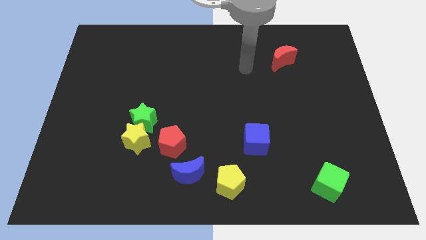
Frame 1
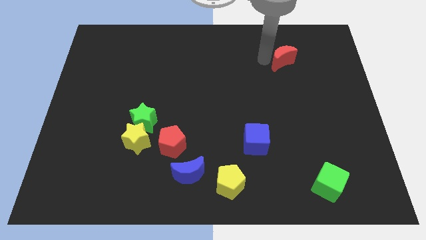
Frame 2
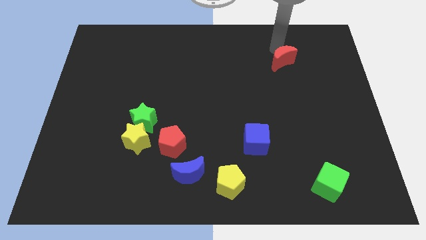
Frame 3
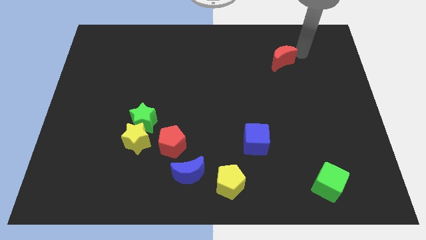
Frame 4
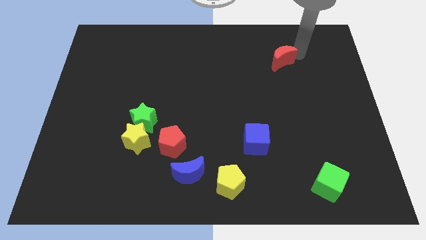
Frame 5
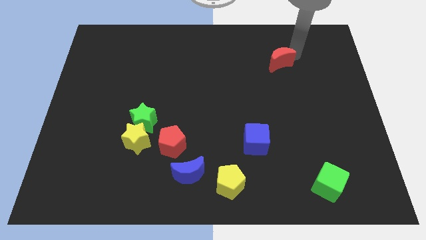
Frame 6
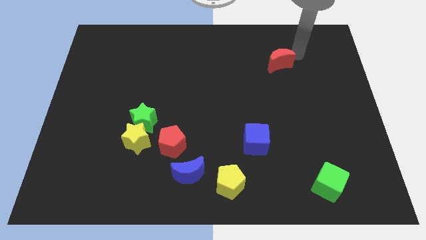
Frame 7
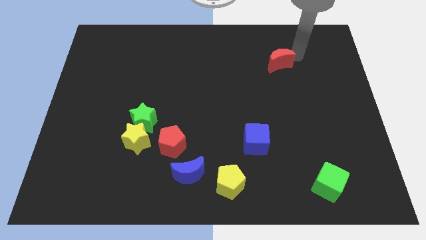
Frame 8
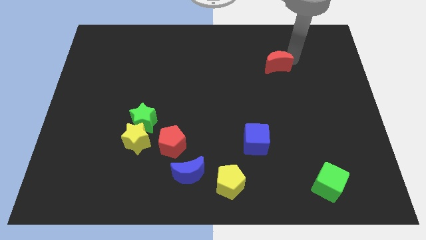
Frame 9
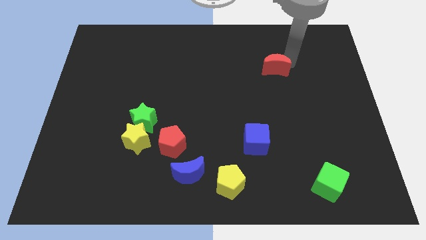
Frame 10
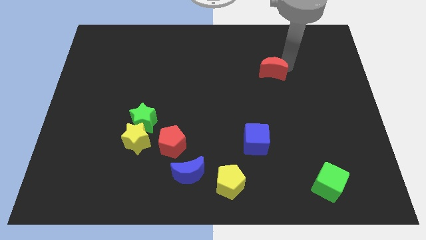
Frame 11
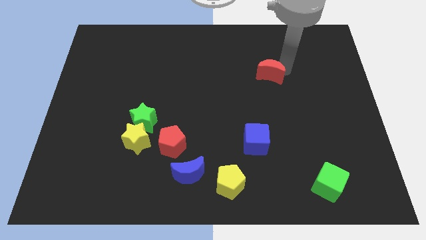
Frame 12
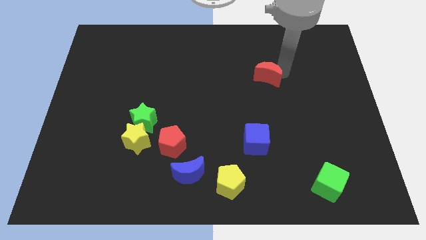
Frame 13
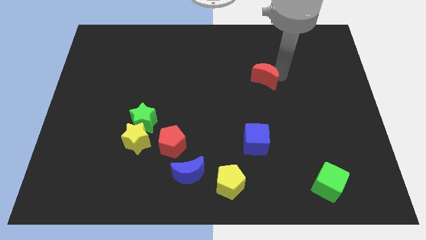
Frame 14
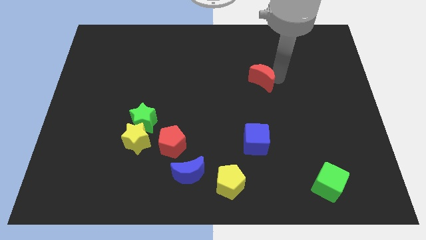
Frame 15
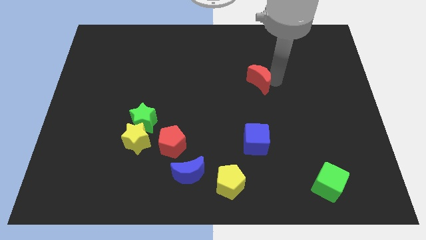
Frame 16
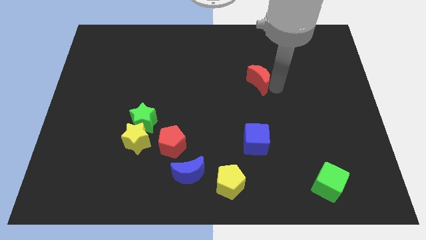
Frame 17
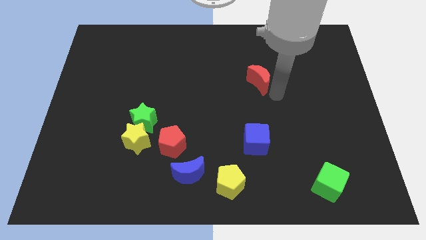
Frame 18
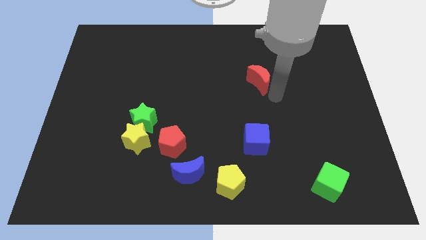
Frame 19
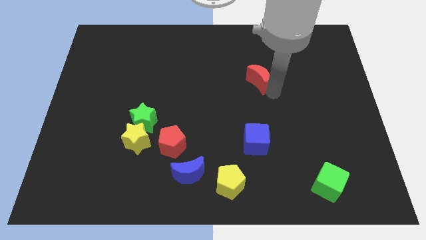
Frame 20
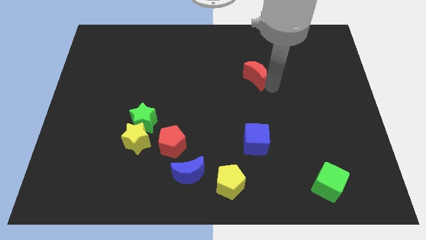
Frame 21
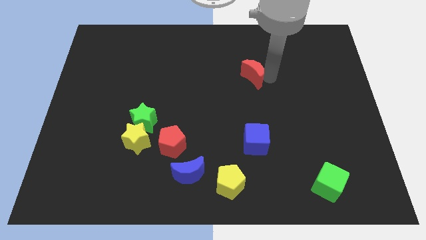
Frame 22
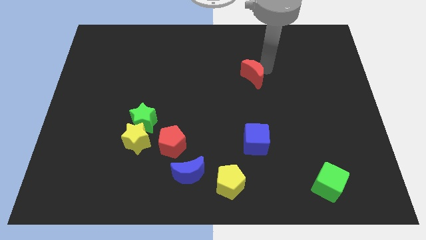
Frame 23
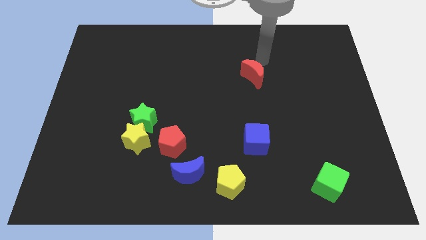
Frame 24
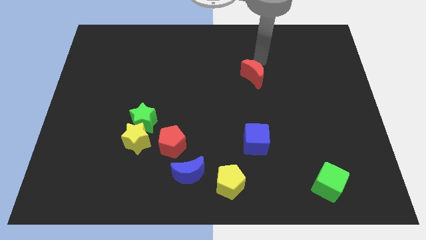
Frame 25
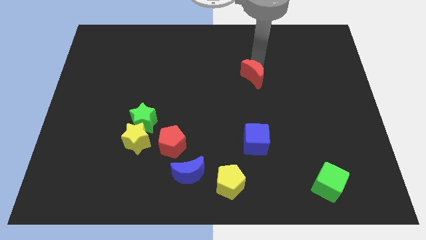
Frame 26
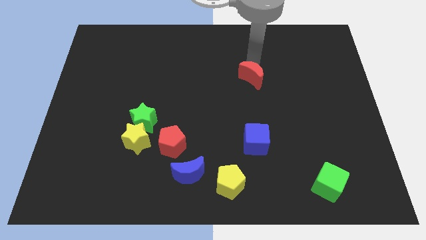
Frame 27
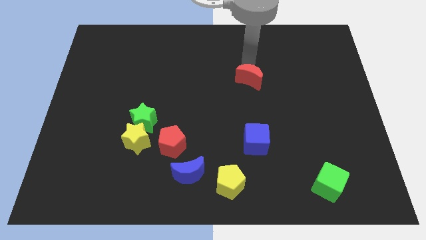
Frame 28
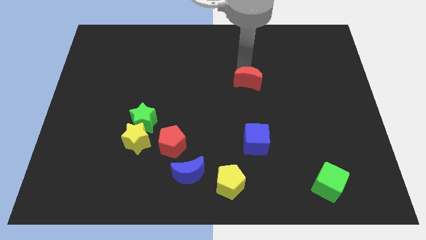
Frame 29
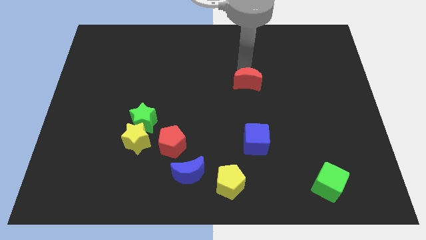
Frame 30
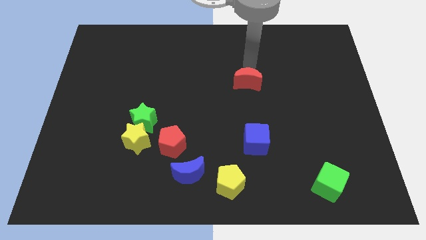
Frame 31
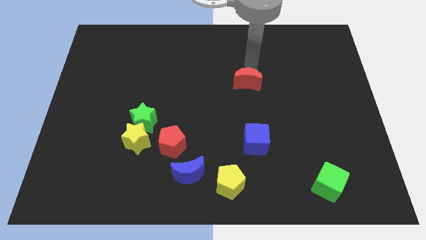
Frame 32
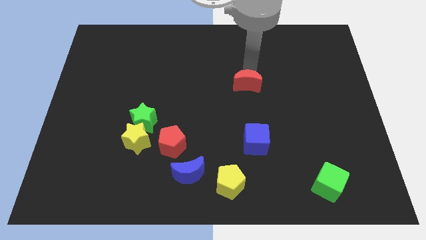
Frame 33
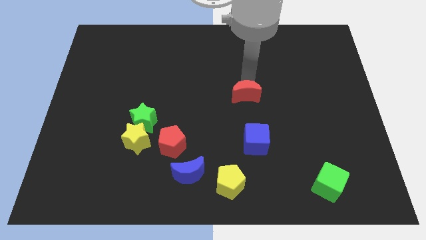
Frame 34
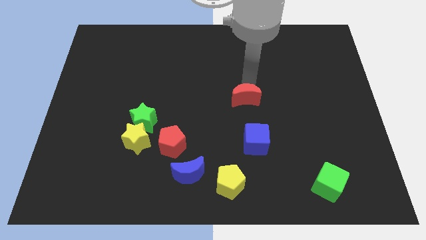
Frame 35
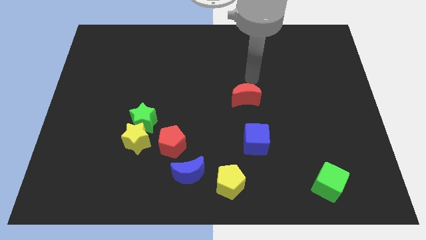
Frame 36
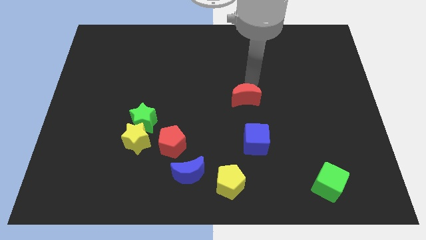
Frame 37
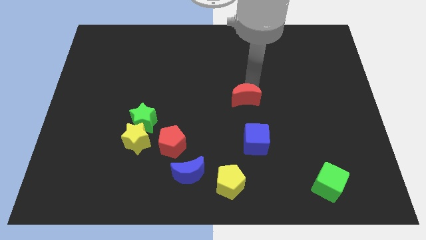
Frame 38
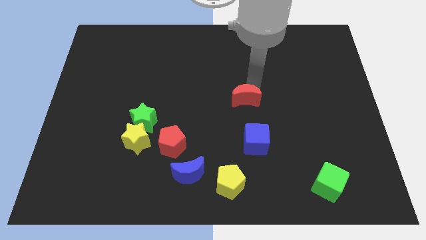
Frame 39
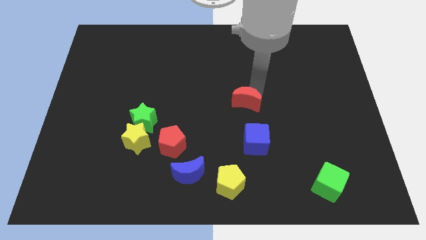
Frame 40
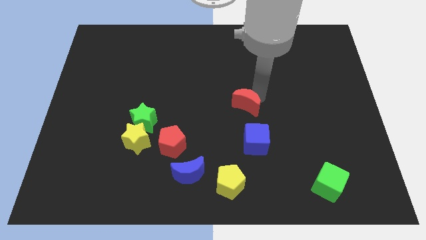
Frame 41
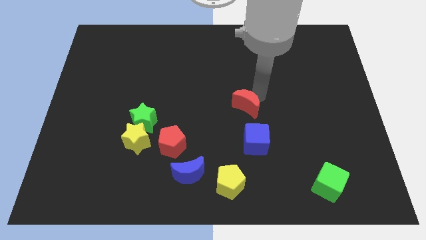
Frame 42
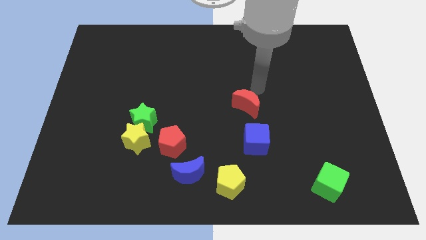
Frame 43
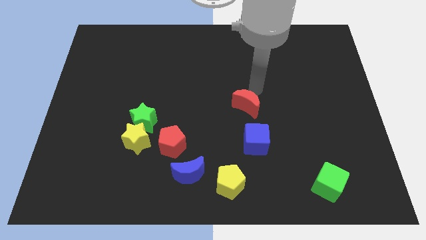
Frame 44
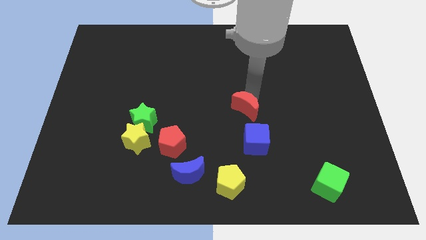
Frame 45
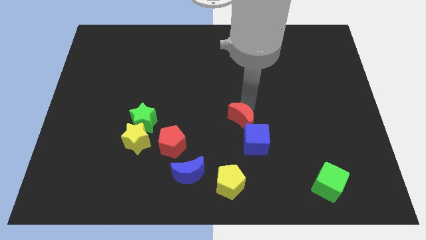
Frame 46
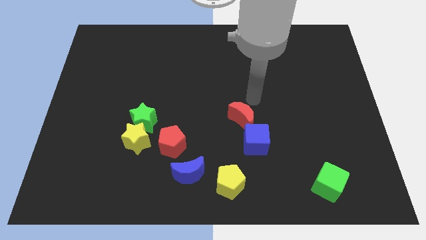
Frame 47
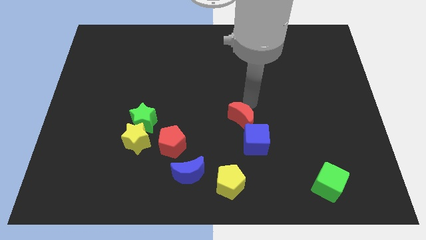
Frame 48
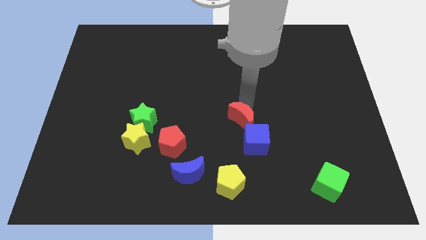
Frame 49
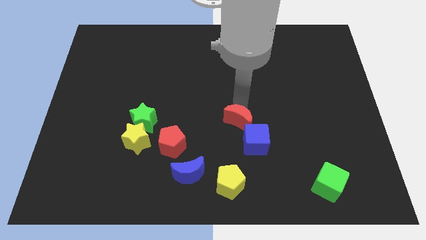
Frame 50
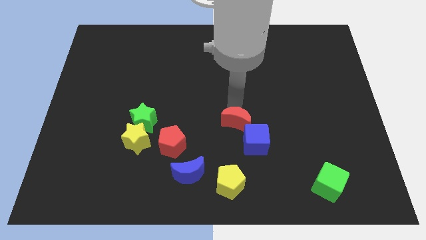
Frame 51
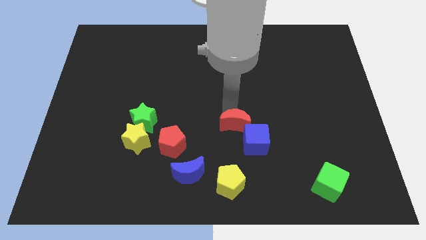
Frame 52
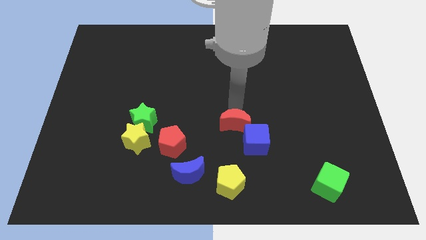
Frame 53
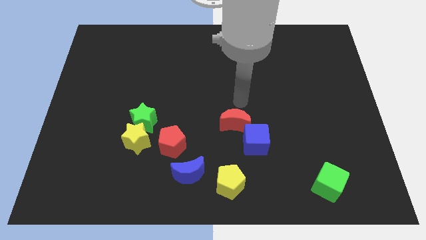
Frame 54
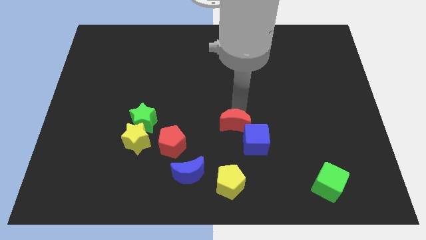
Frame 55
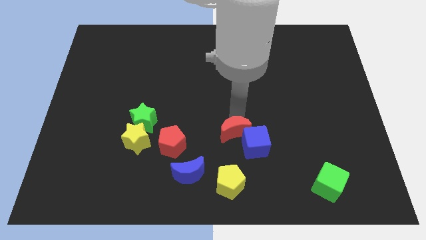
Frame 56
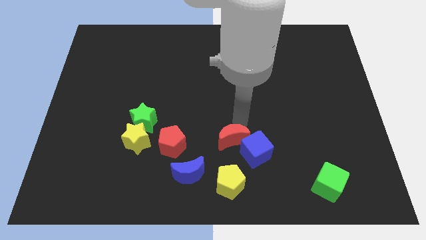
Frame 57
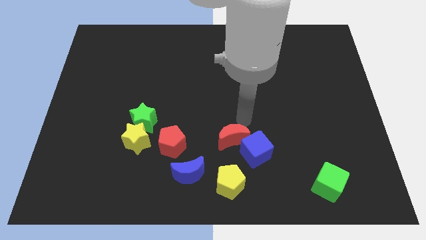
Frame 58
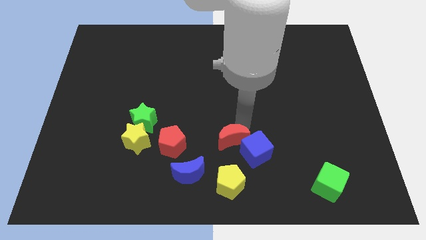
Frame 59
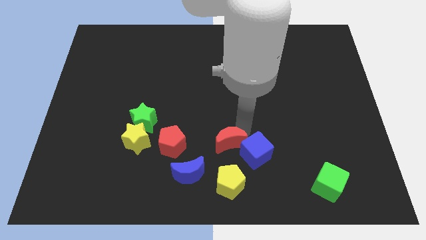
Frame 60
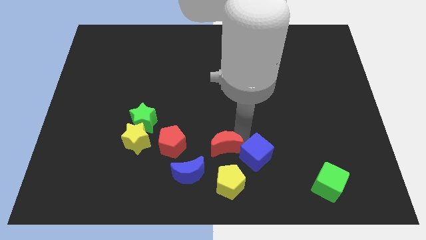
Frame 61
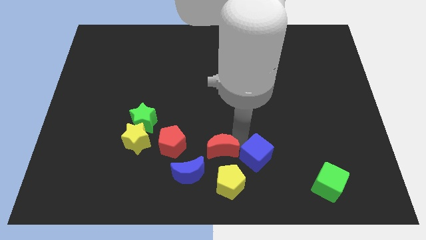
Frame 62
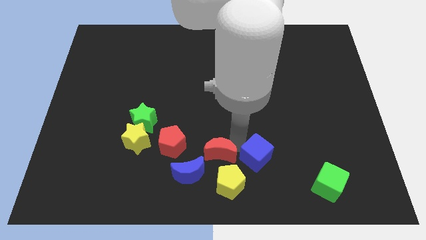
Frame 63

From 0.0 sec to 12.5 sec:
slide the red moon to the bottom
